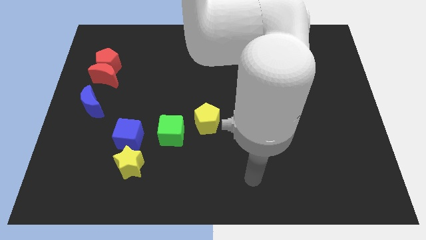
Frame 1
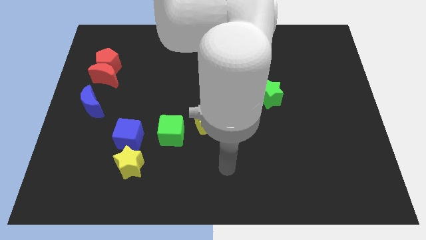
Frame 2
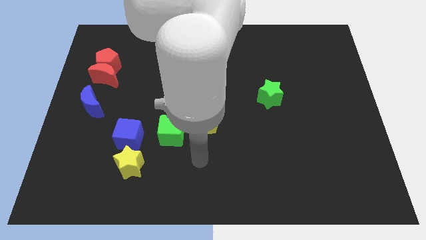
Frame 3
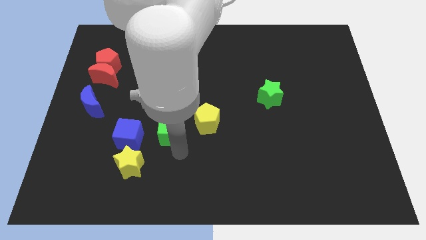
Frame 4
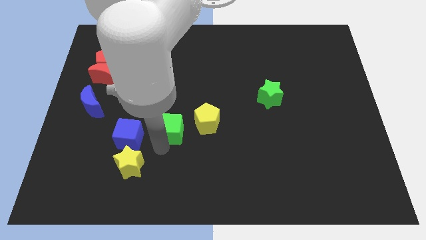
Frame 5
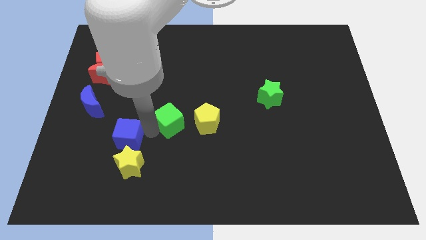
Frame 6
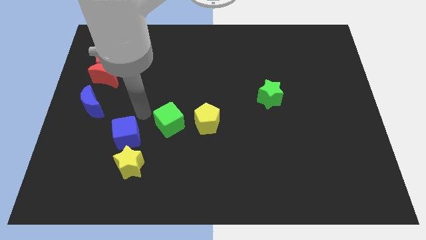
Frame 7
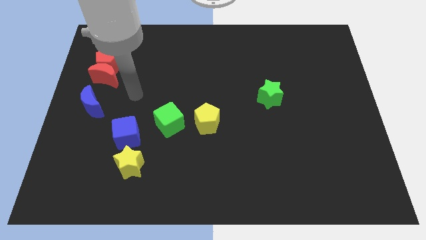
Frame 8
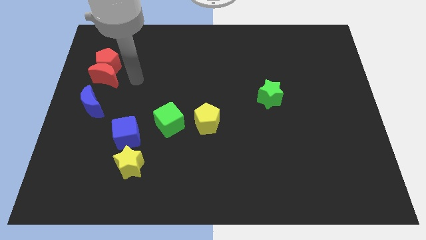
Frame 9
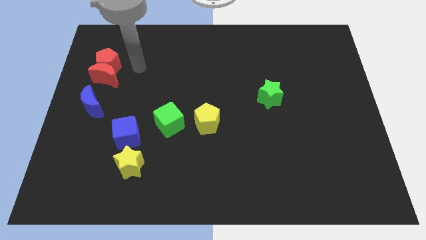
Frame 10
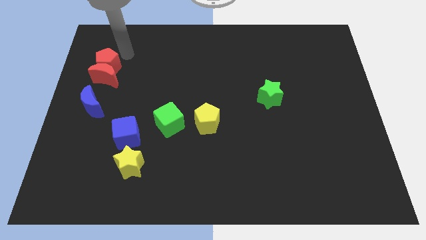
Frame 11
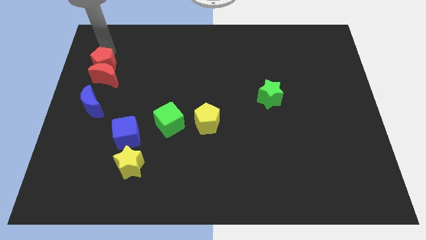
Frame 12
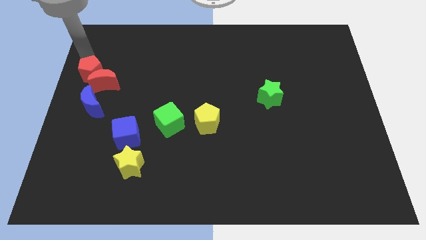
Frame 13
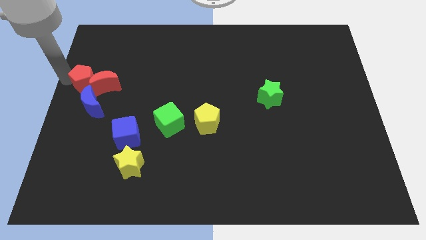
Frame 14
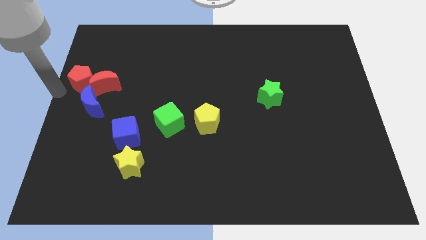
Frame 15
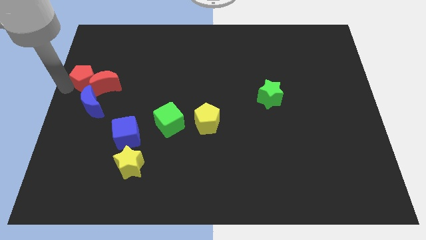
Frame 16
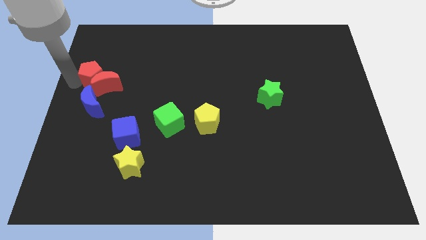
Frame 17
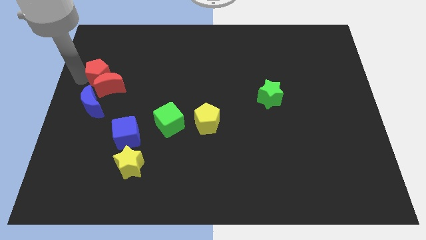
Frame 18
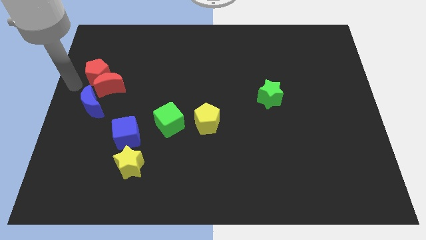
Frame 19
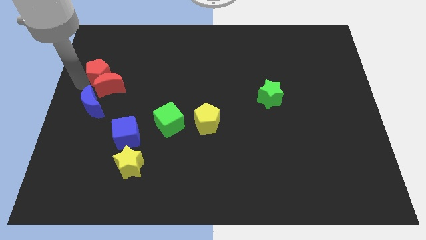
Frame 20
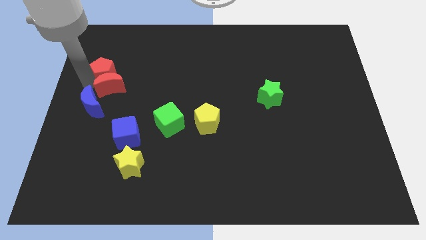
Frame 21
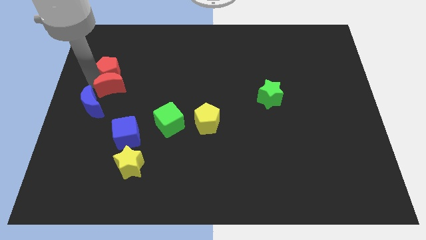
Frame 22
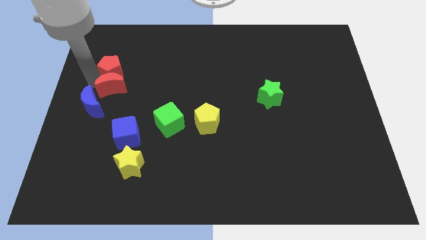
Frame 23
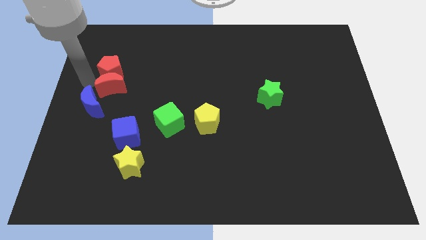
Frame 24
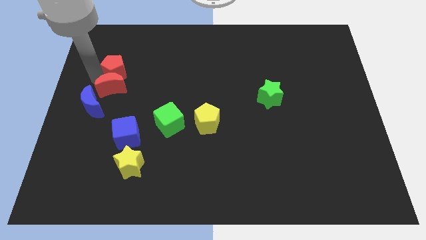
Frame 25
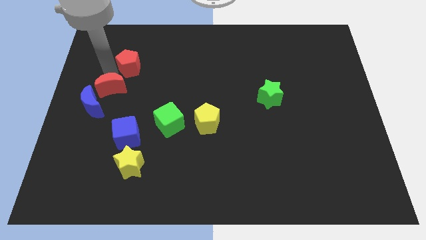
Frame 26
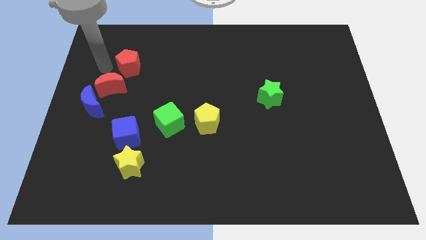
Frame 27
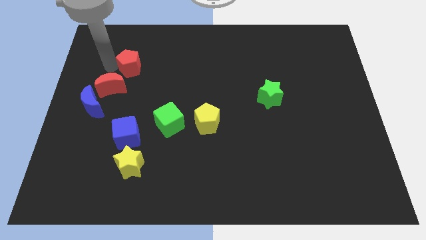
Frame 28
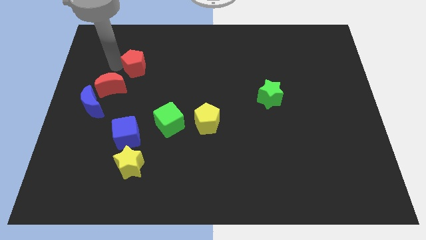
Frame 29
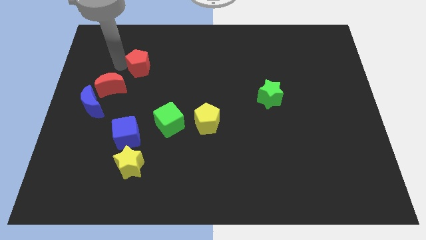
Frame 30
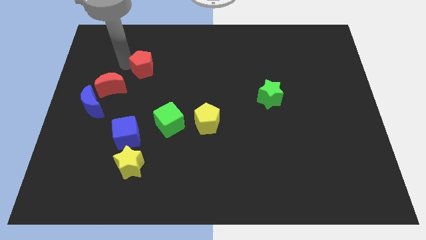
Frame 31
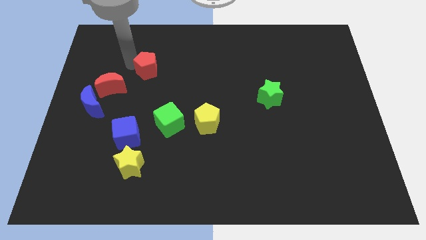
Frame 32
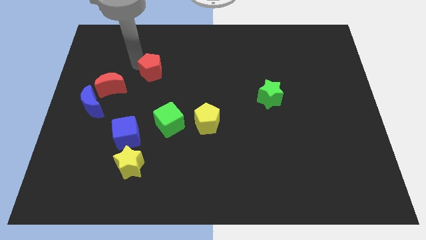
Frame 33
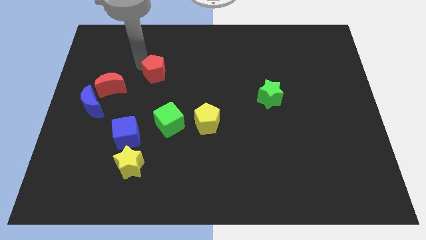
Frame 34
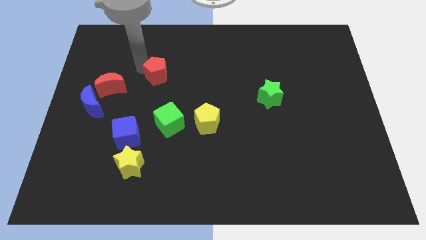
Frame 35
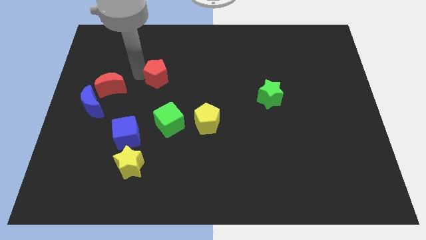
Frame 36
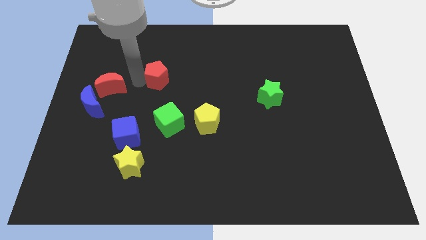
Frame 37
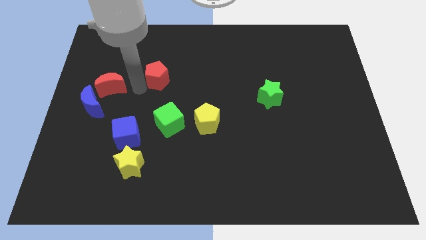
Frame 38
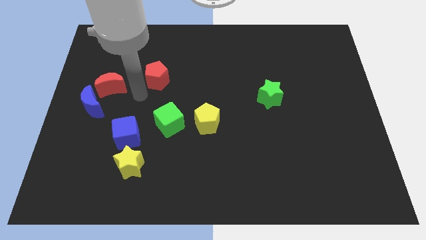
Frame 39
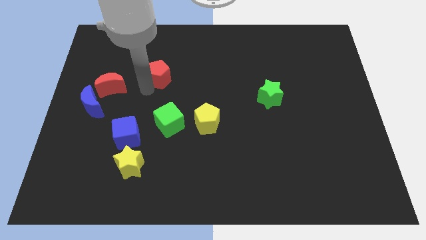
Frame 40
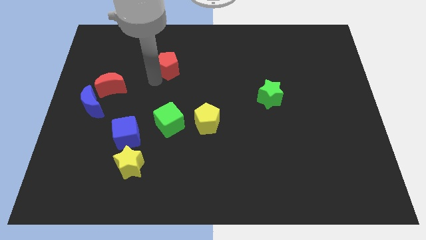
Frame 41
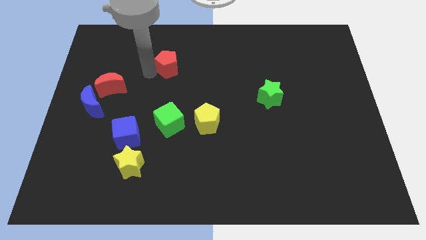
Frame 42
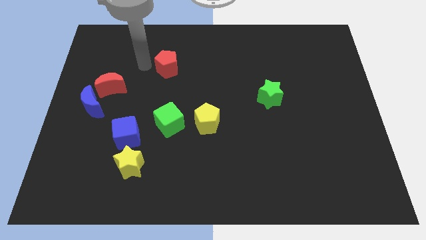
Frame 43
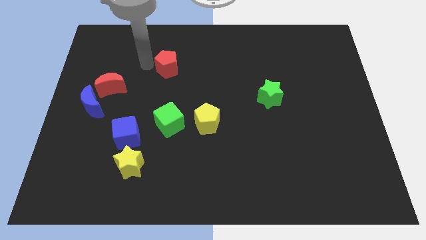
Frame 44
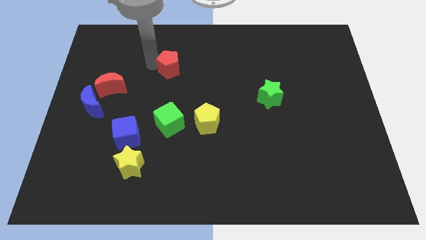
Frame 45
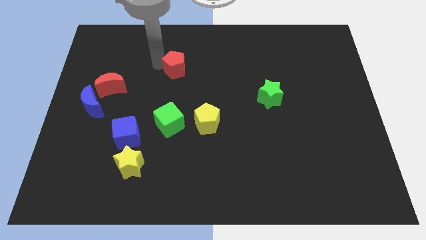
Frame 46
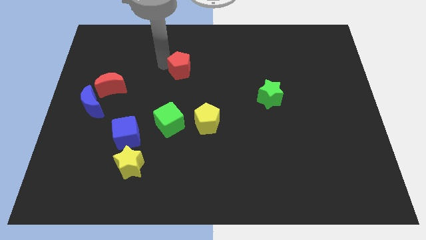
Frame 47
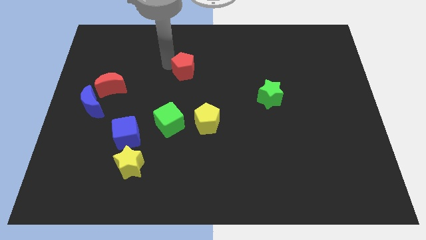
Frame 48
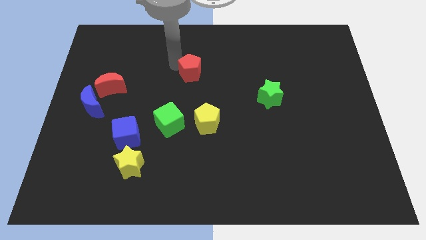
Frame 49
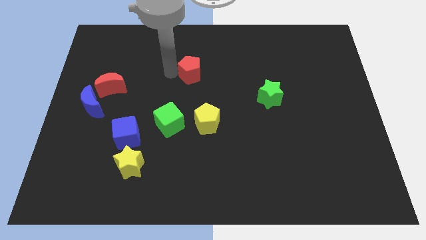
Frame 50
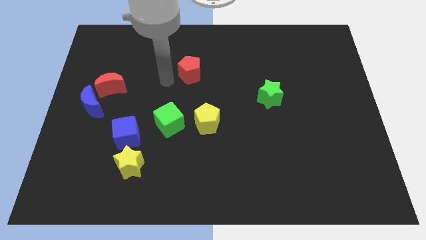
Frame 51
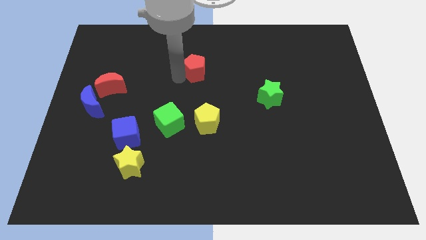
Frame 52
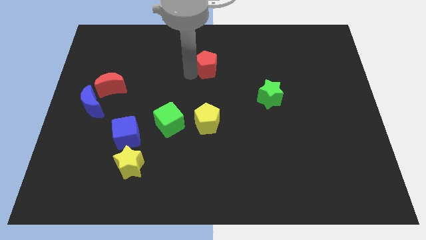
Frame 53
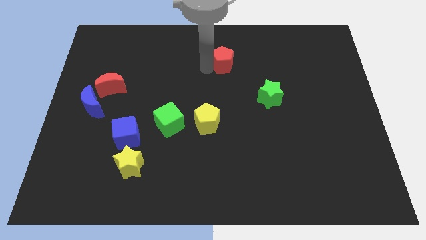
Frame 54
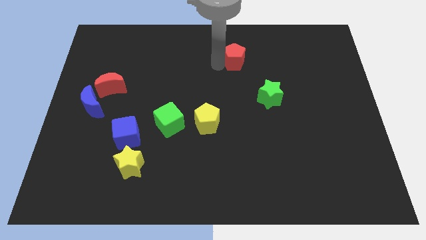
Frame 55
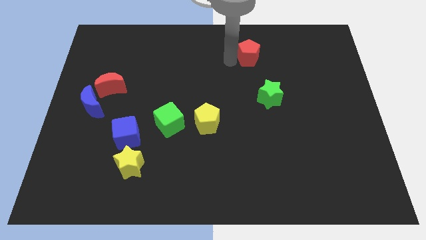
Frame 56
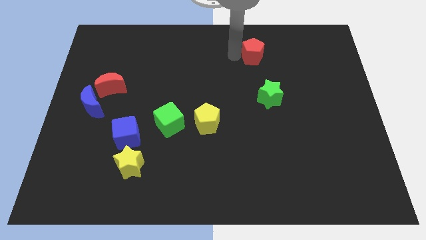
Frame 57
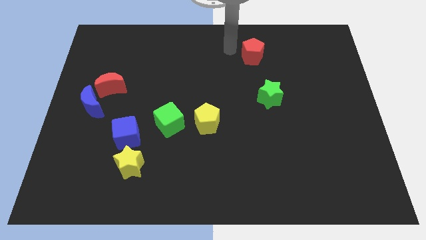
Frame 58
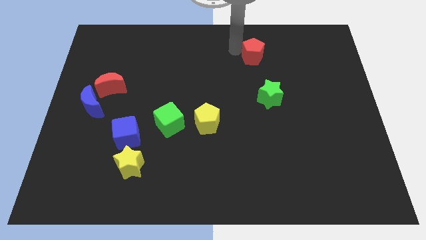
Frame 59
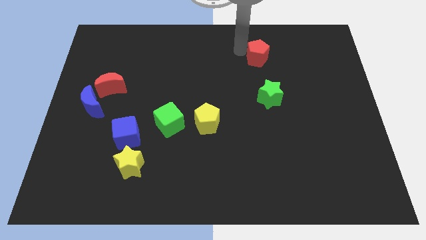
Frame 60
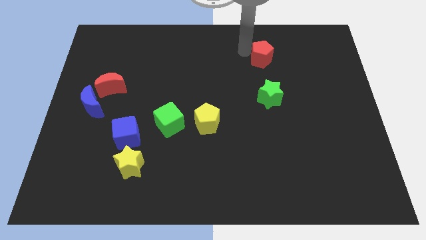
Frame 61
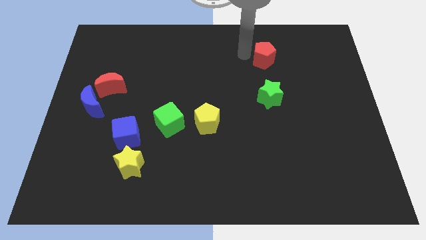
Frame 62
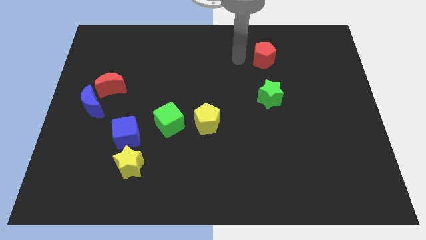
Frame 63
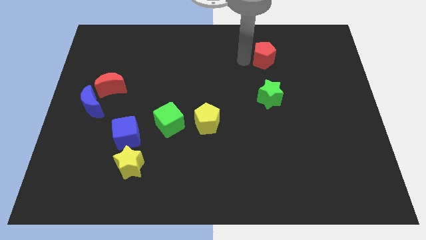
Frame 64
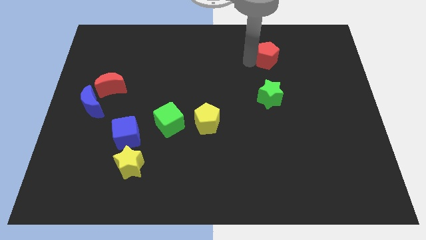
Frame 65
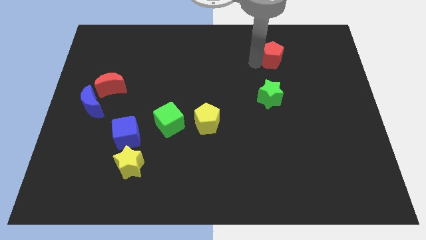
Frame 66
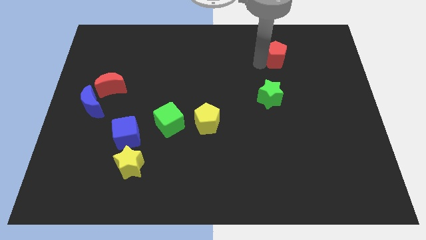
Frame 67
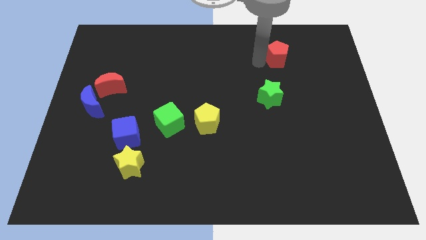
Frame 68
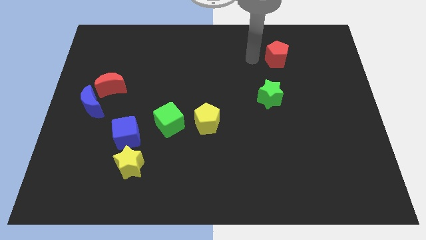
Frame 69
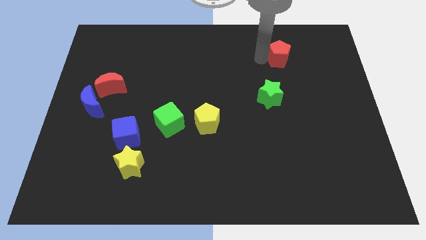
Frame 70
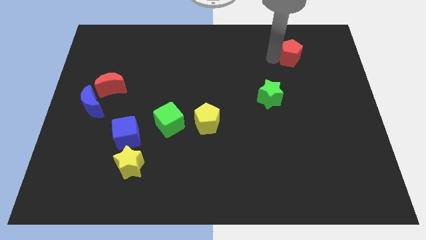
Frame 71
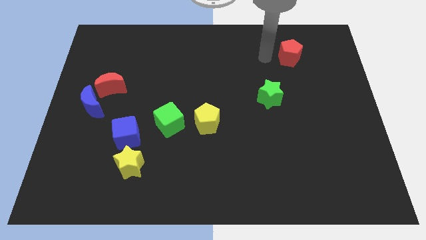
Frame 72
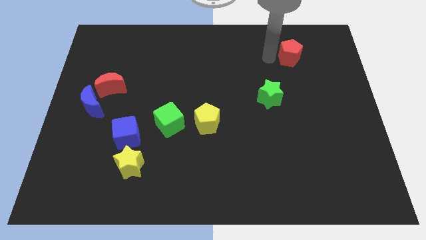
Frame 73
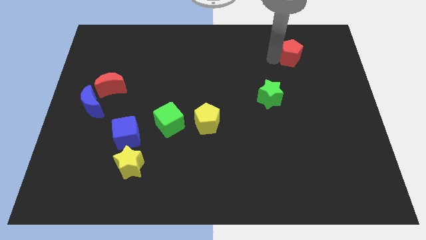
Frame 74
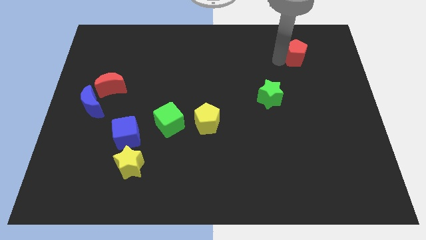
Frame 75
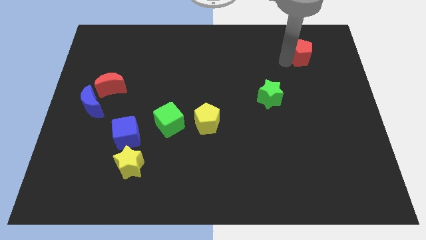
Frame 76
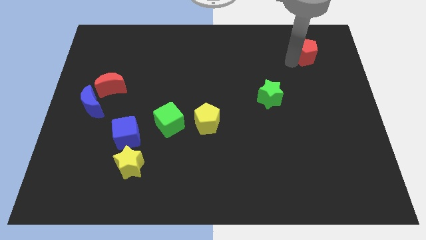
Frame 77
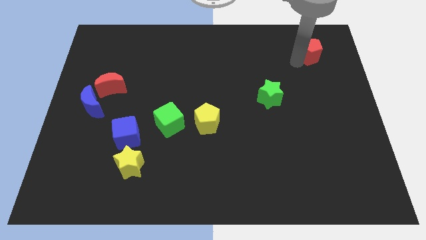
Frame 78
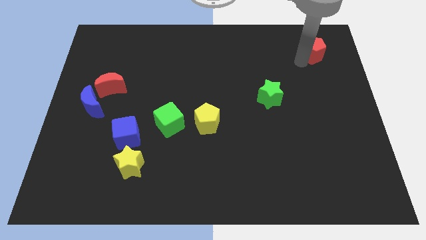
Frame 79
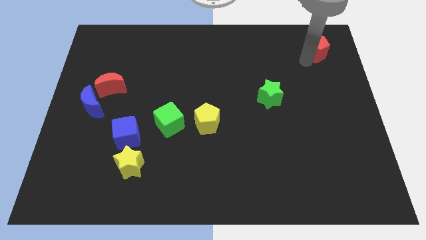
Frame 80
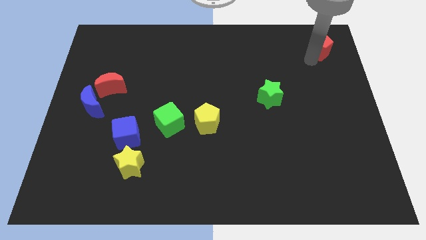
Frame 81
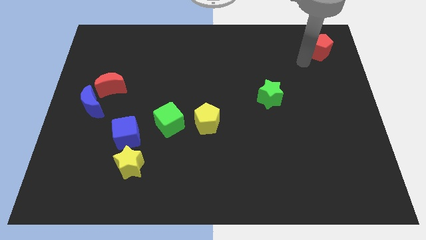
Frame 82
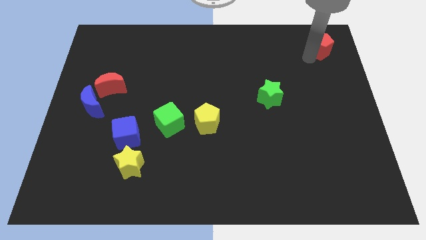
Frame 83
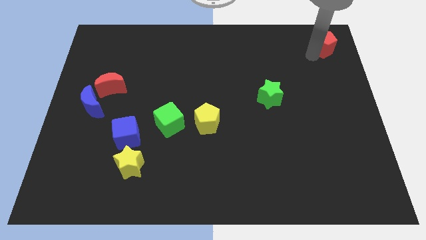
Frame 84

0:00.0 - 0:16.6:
move the red pentagon to the top right corner
